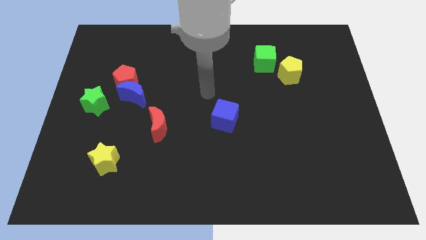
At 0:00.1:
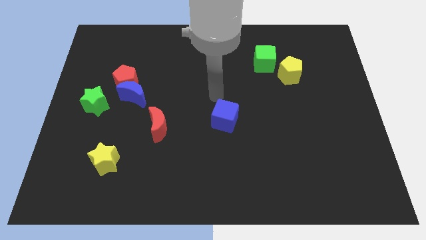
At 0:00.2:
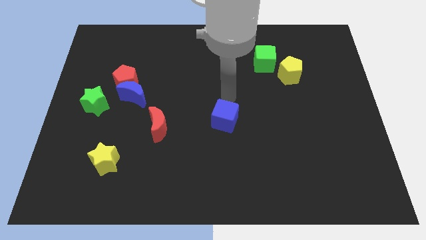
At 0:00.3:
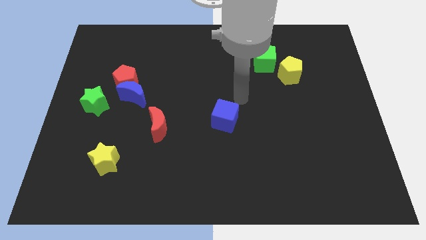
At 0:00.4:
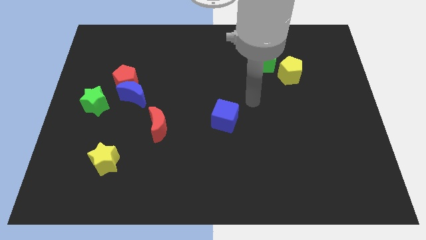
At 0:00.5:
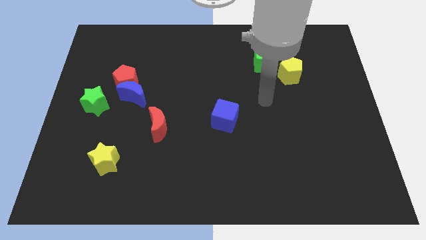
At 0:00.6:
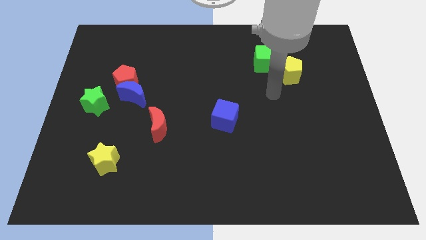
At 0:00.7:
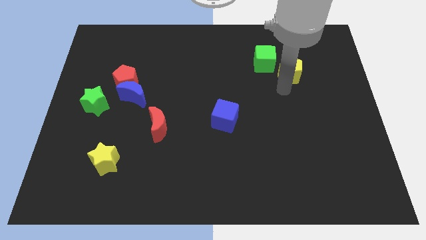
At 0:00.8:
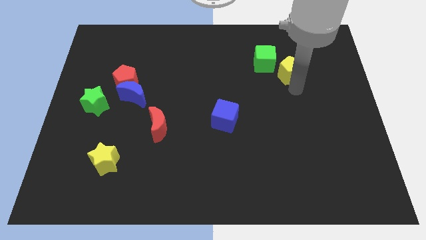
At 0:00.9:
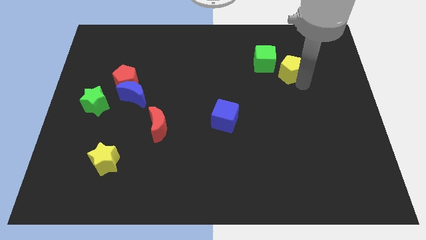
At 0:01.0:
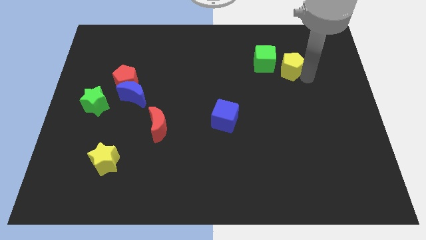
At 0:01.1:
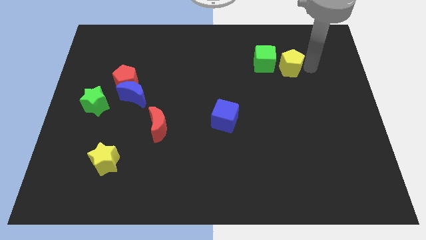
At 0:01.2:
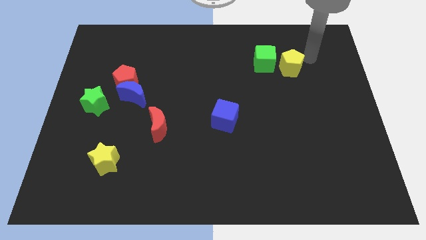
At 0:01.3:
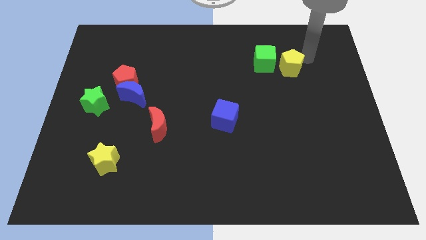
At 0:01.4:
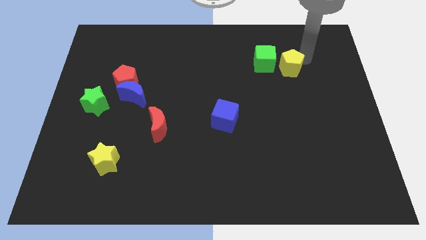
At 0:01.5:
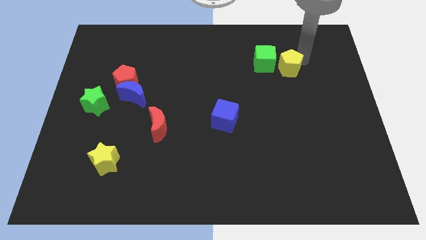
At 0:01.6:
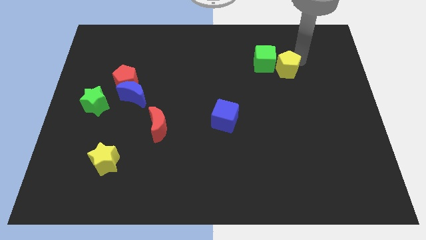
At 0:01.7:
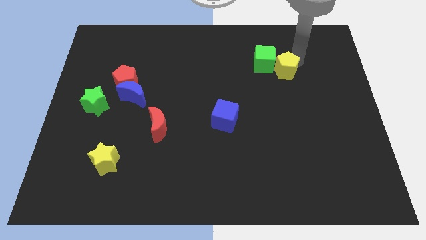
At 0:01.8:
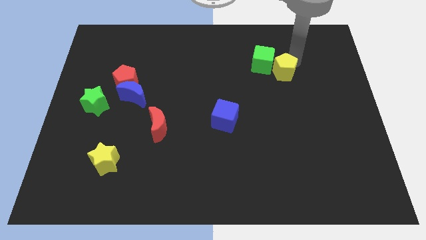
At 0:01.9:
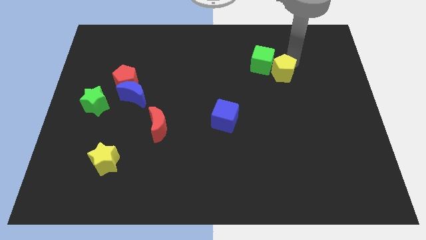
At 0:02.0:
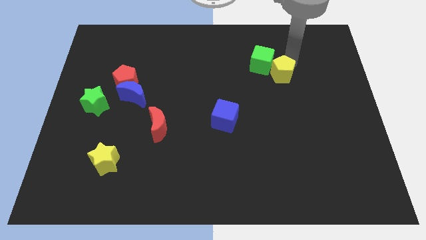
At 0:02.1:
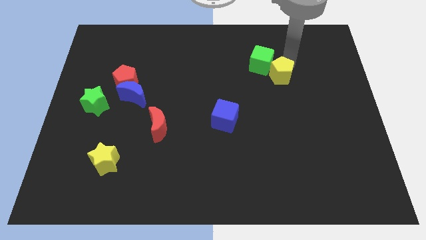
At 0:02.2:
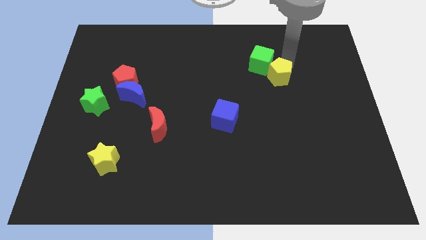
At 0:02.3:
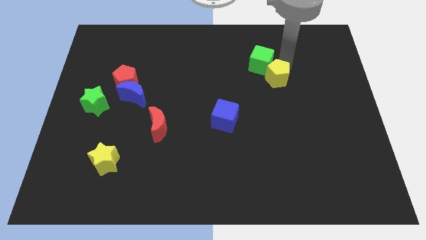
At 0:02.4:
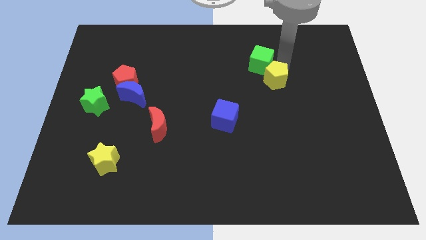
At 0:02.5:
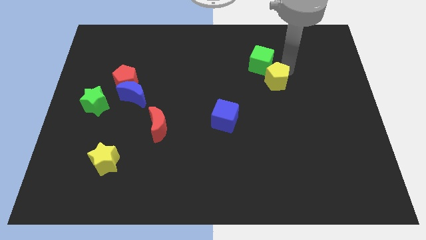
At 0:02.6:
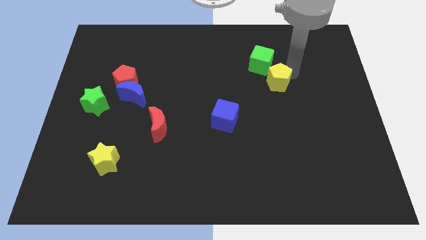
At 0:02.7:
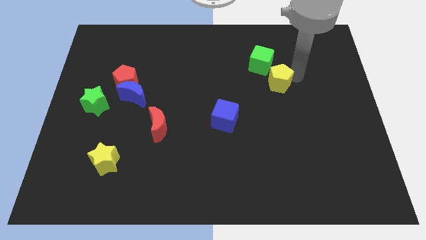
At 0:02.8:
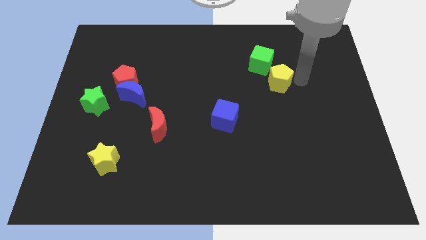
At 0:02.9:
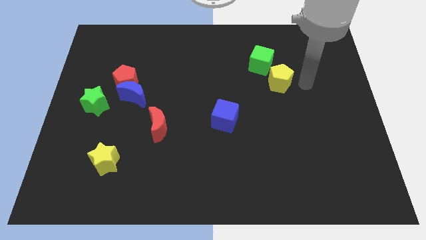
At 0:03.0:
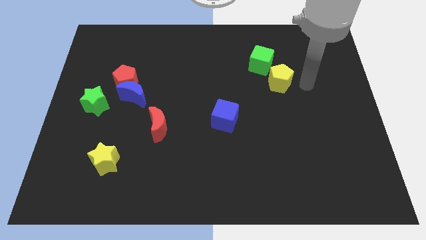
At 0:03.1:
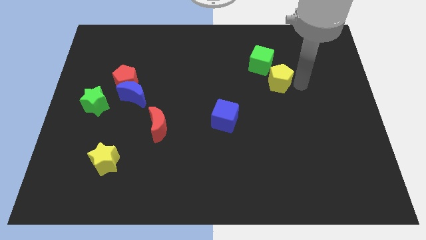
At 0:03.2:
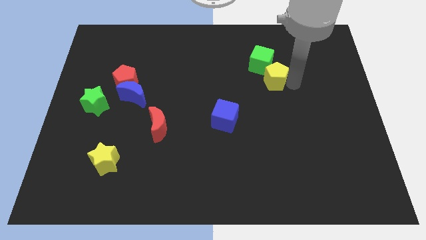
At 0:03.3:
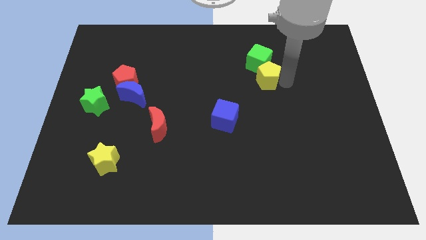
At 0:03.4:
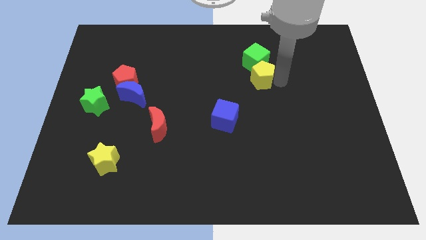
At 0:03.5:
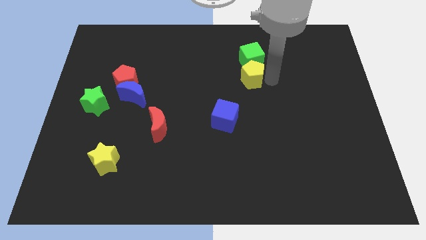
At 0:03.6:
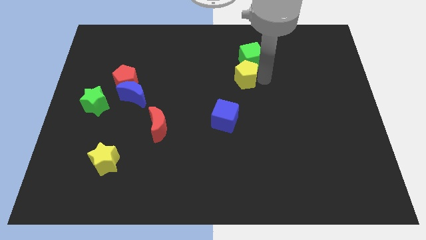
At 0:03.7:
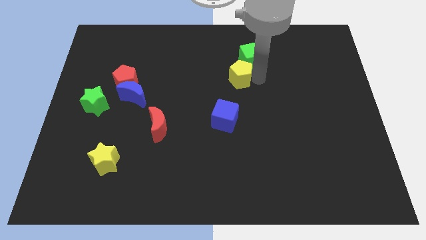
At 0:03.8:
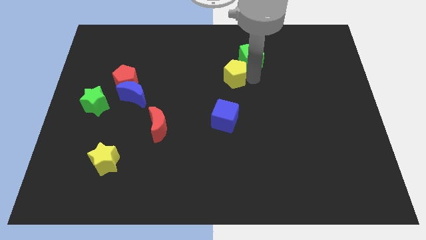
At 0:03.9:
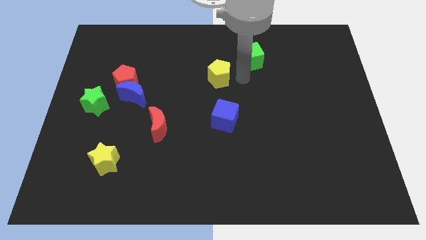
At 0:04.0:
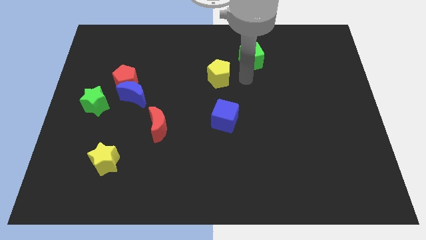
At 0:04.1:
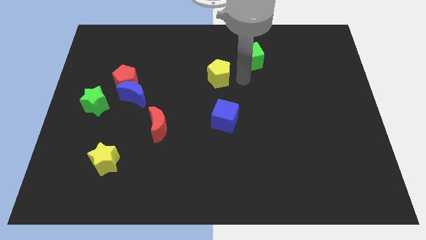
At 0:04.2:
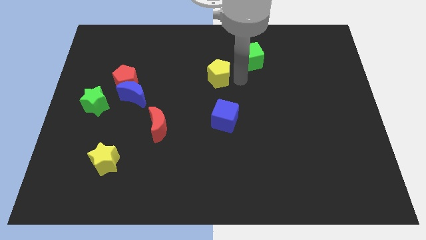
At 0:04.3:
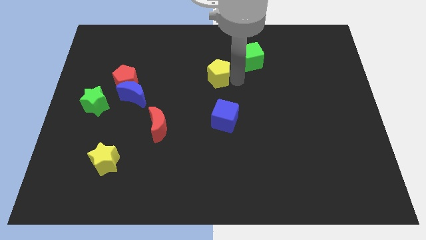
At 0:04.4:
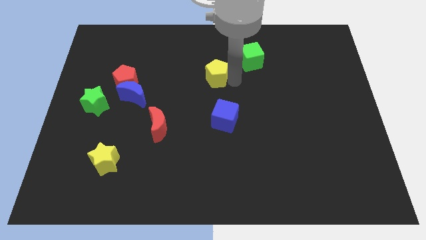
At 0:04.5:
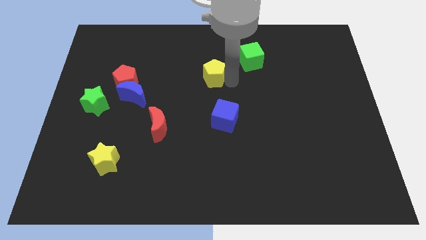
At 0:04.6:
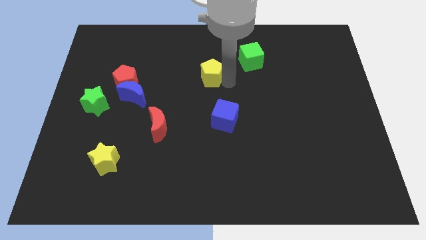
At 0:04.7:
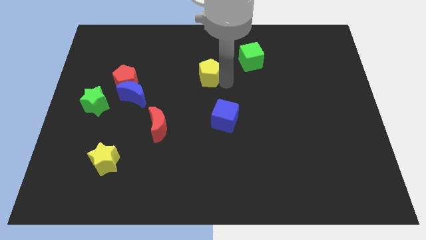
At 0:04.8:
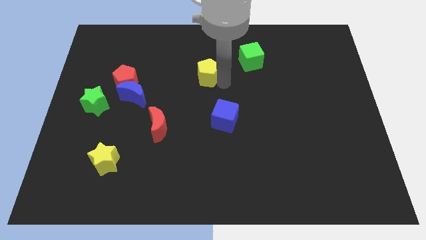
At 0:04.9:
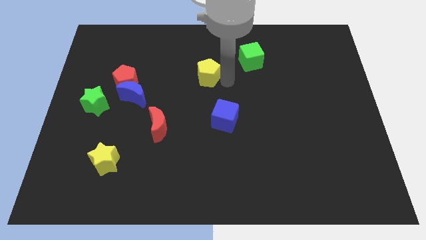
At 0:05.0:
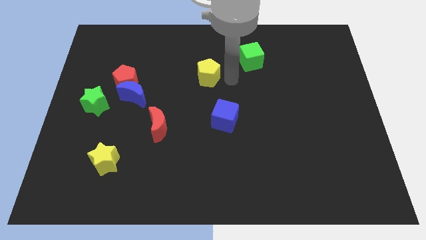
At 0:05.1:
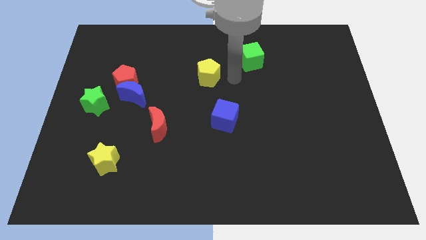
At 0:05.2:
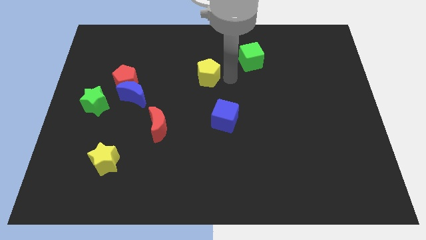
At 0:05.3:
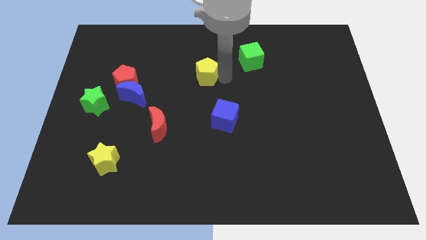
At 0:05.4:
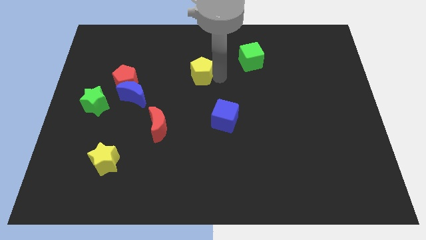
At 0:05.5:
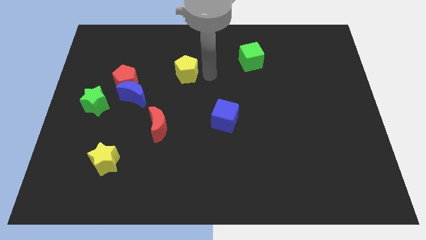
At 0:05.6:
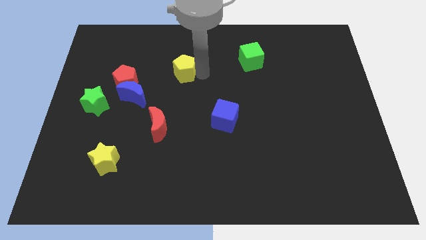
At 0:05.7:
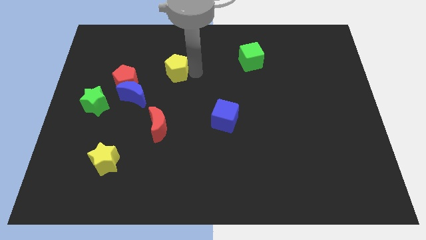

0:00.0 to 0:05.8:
move the yellow pentagon diagonally up and to the right of the blue moon

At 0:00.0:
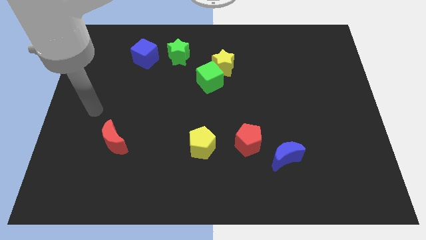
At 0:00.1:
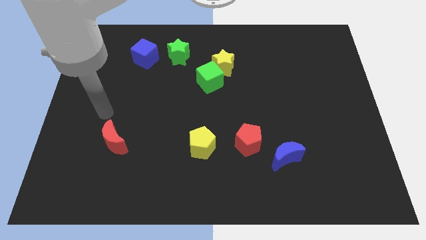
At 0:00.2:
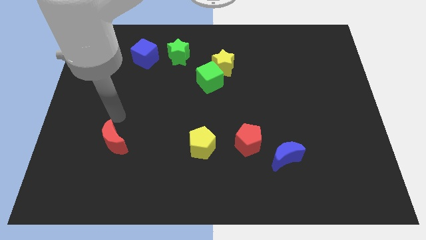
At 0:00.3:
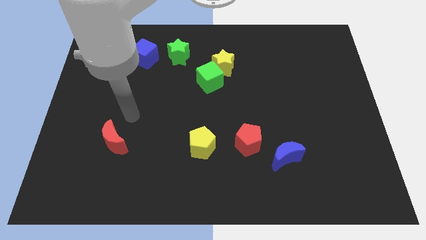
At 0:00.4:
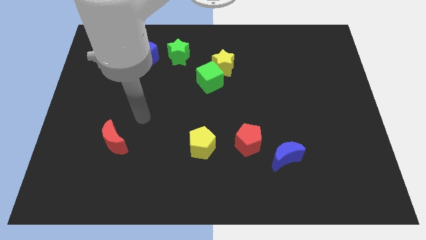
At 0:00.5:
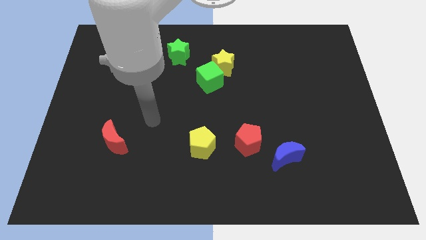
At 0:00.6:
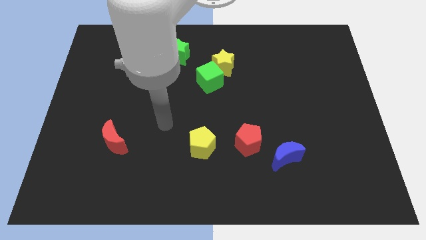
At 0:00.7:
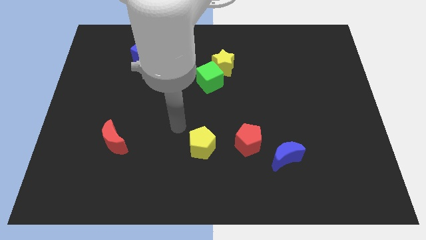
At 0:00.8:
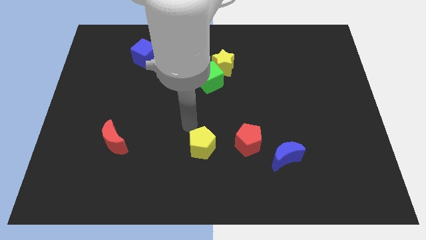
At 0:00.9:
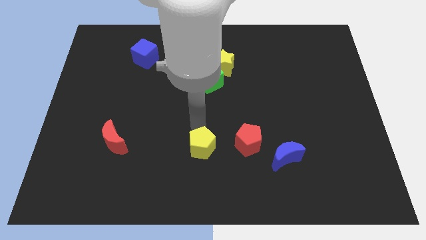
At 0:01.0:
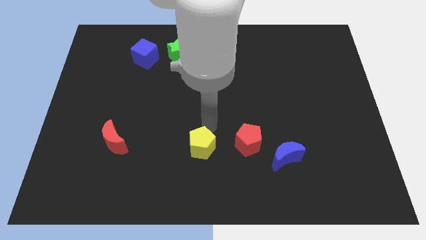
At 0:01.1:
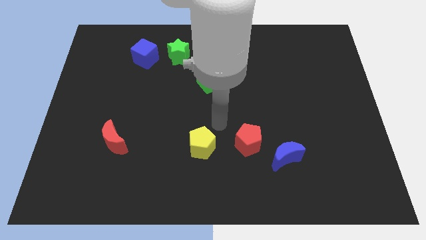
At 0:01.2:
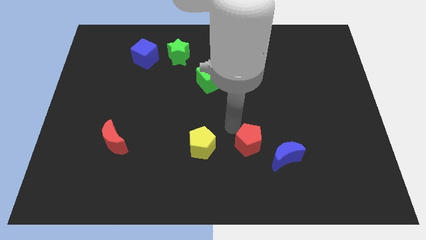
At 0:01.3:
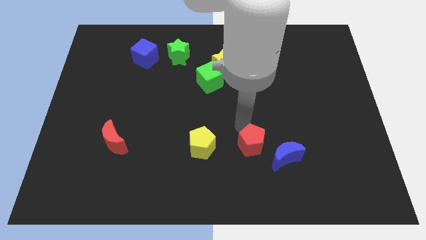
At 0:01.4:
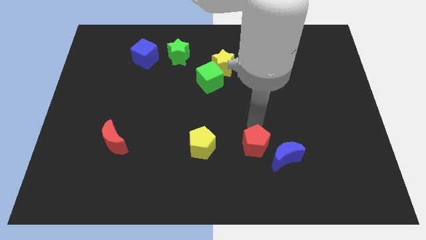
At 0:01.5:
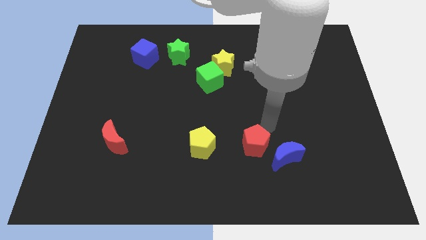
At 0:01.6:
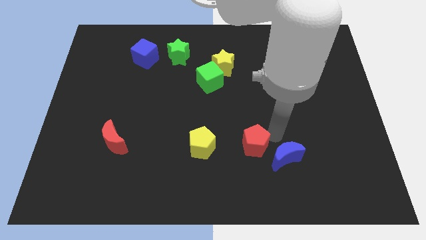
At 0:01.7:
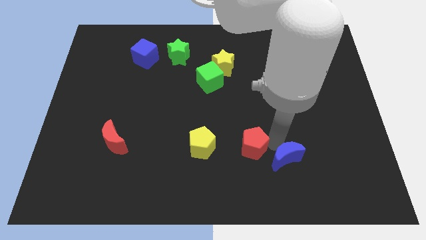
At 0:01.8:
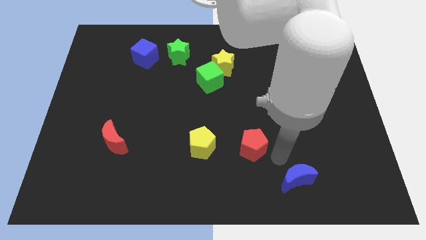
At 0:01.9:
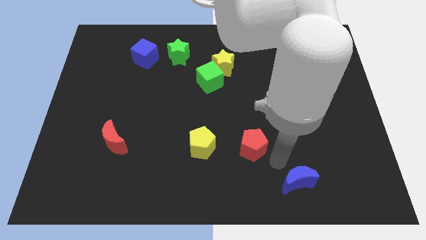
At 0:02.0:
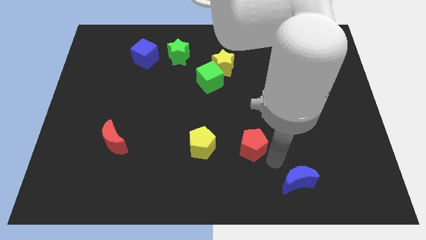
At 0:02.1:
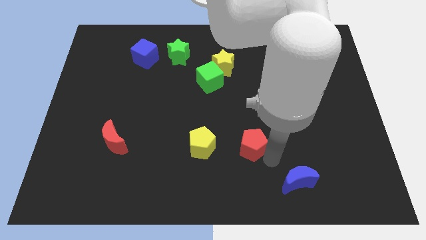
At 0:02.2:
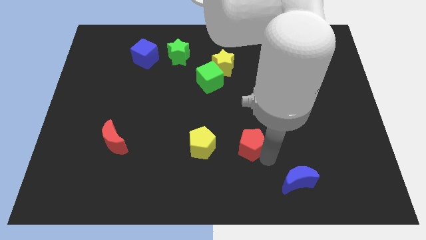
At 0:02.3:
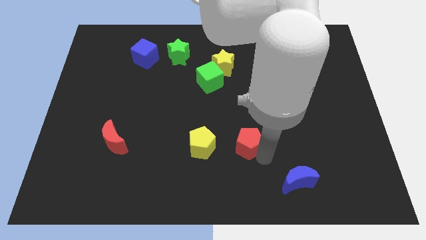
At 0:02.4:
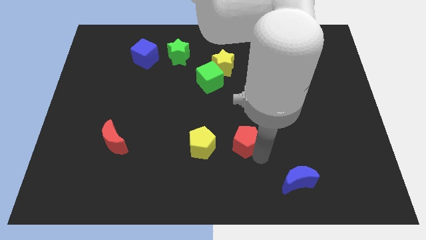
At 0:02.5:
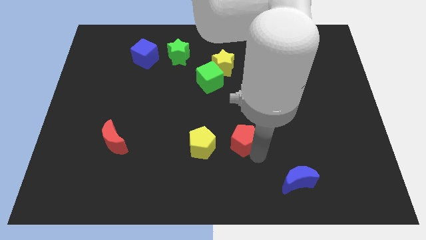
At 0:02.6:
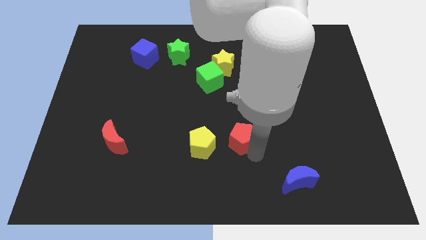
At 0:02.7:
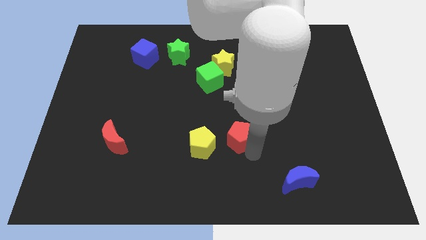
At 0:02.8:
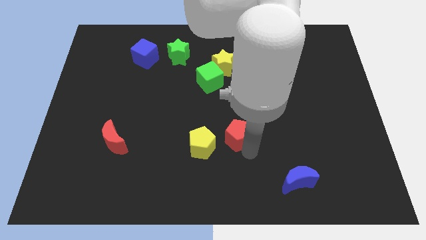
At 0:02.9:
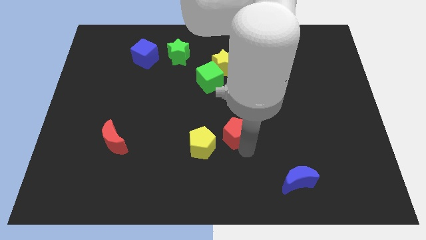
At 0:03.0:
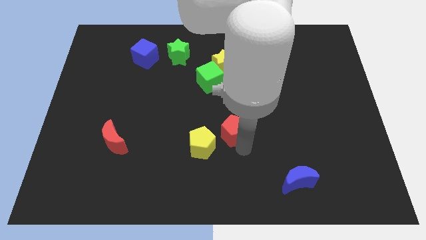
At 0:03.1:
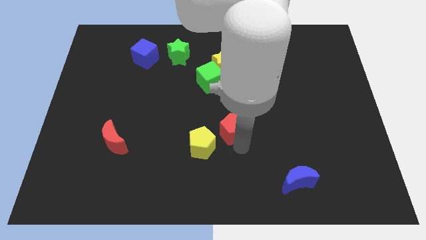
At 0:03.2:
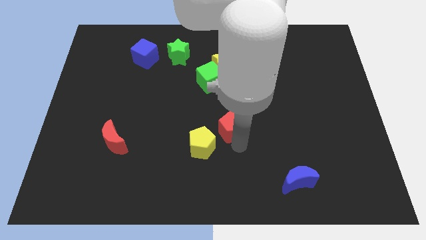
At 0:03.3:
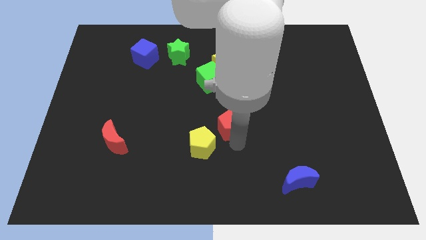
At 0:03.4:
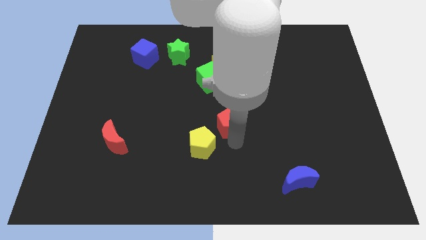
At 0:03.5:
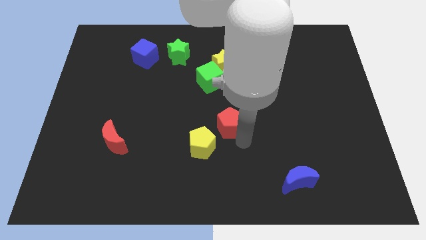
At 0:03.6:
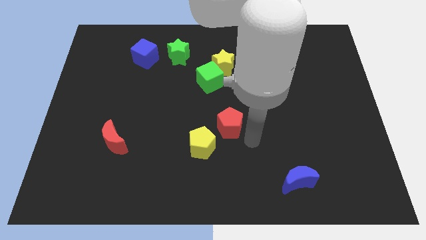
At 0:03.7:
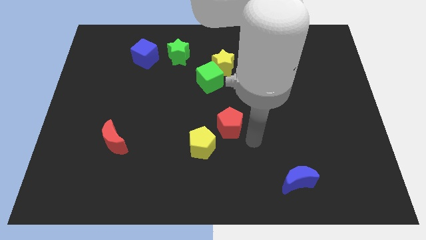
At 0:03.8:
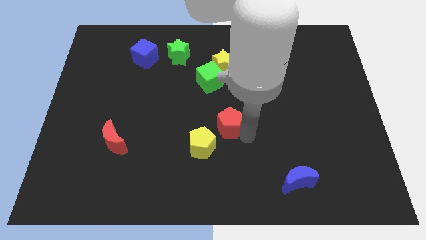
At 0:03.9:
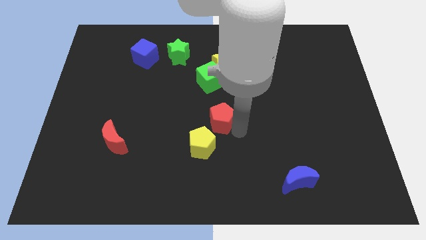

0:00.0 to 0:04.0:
move the red pentagon to the top side of the yellow pentagon
